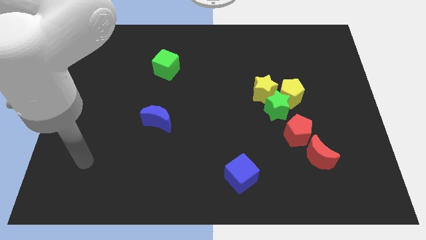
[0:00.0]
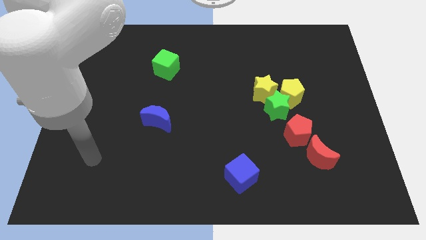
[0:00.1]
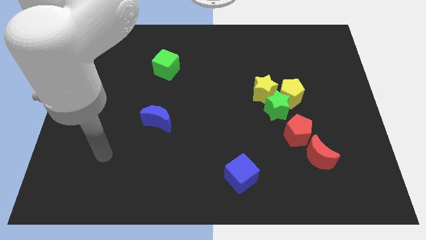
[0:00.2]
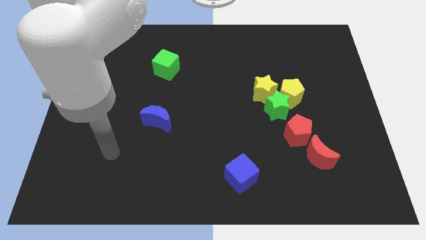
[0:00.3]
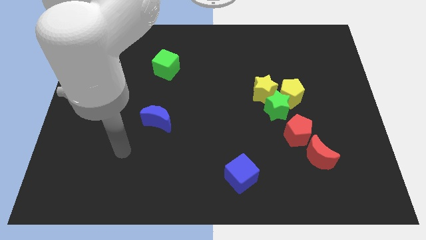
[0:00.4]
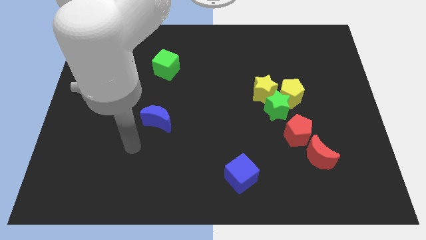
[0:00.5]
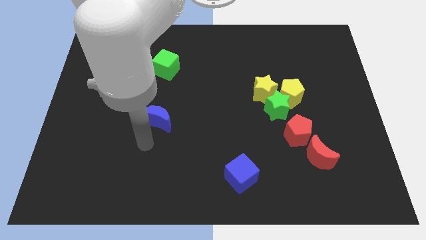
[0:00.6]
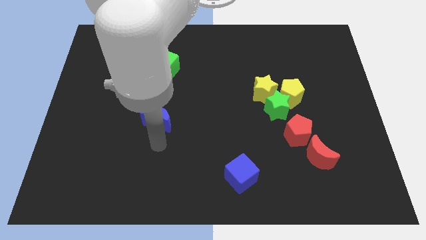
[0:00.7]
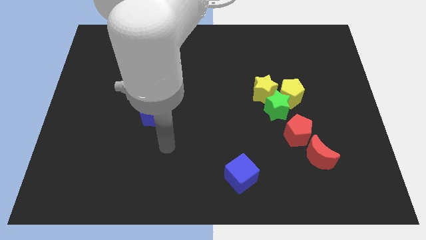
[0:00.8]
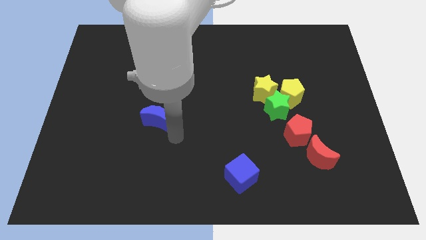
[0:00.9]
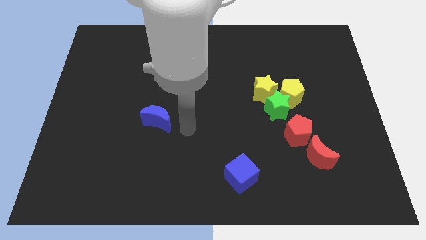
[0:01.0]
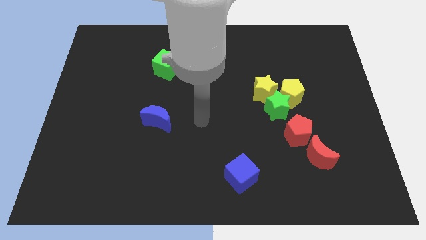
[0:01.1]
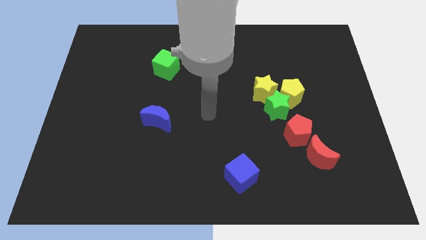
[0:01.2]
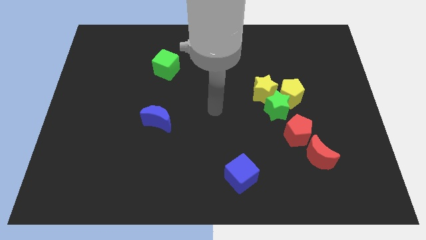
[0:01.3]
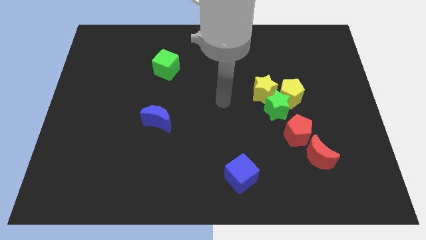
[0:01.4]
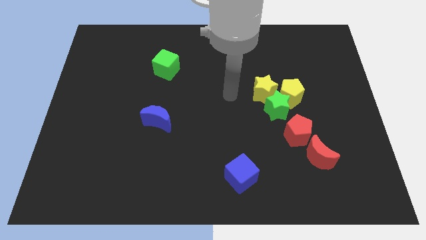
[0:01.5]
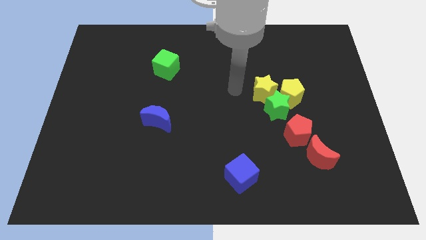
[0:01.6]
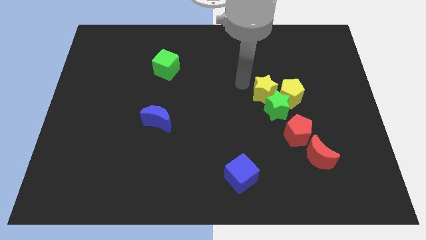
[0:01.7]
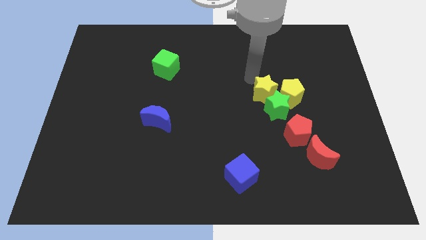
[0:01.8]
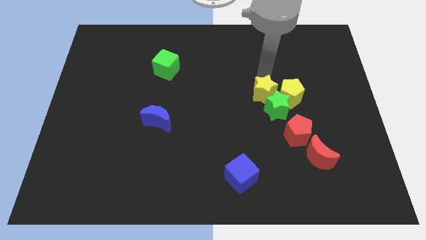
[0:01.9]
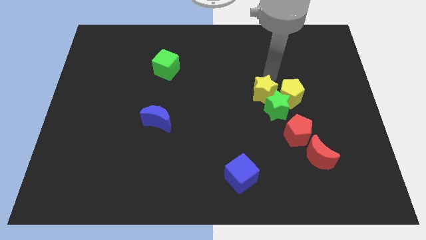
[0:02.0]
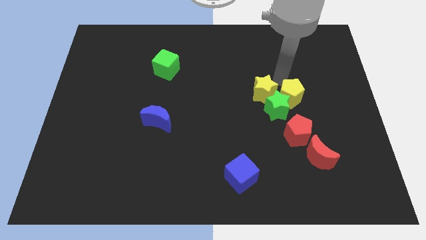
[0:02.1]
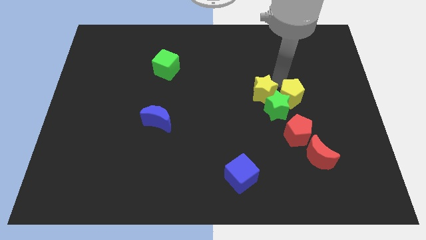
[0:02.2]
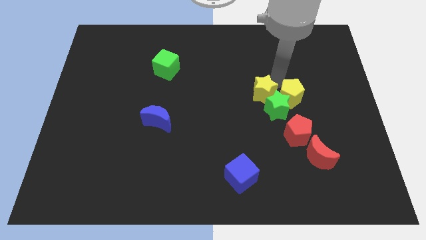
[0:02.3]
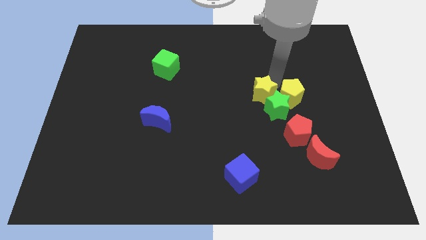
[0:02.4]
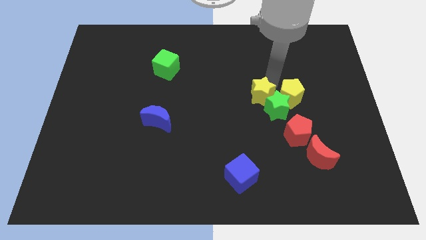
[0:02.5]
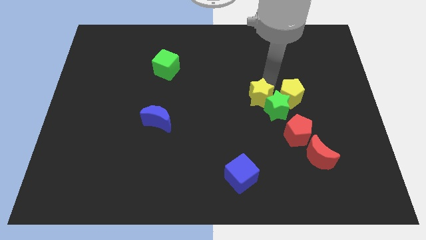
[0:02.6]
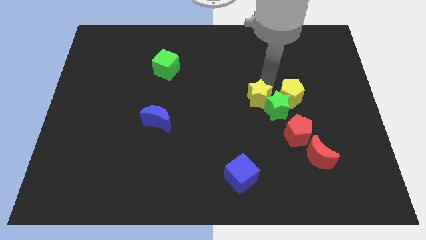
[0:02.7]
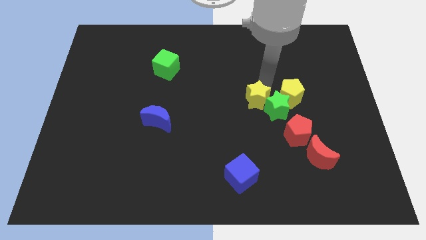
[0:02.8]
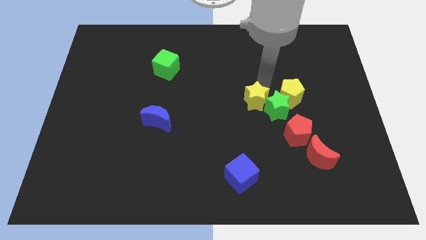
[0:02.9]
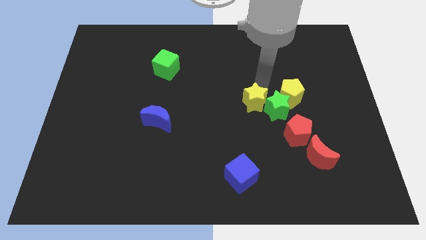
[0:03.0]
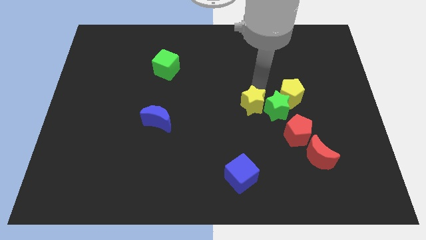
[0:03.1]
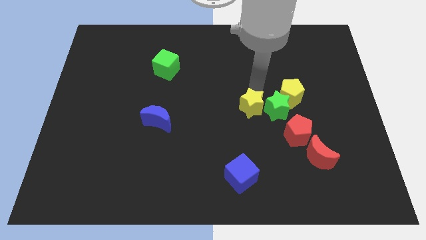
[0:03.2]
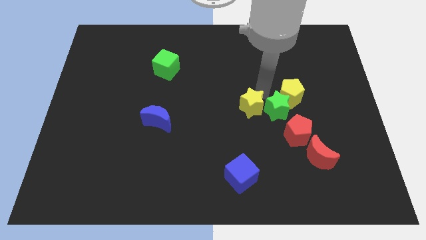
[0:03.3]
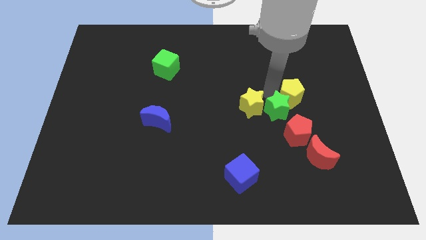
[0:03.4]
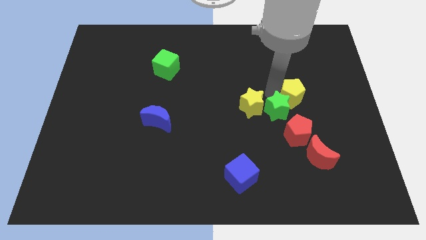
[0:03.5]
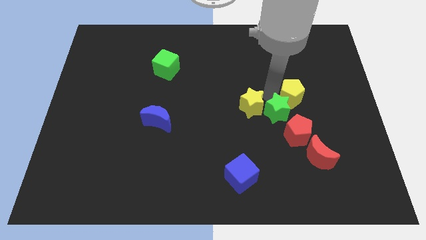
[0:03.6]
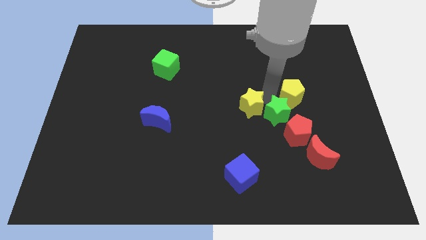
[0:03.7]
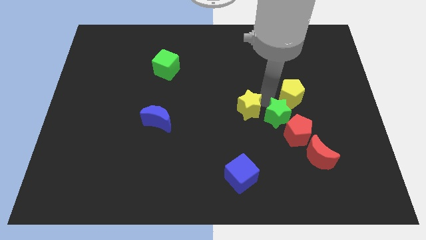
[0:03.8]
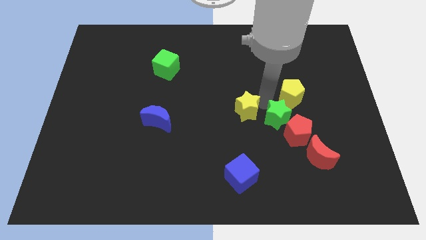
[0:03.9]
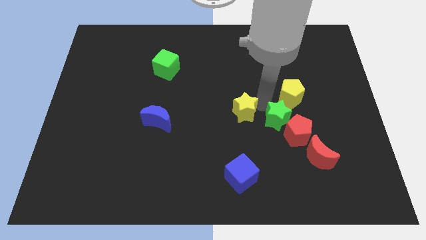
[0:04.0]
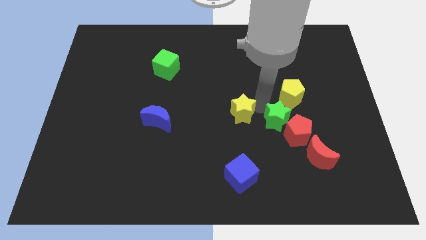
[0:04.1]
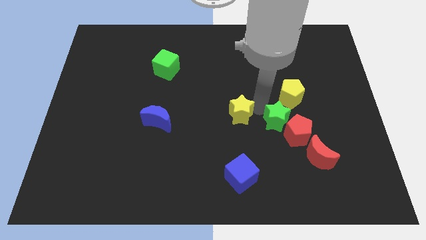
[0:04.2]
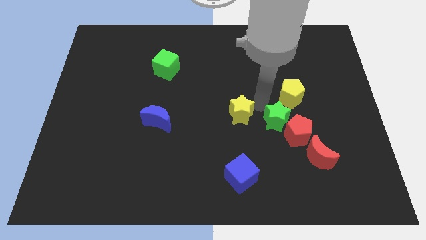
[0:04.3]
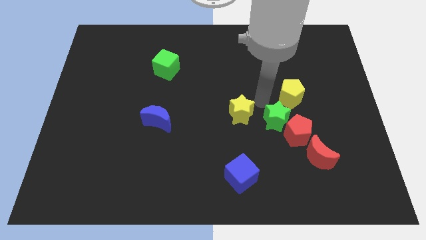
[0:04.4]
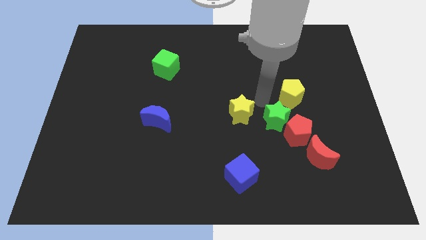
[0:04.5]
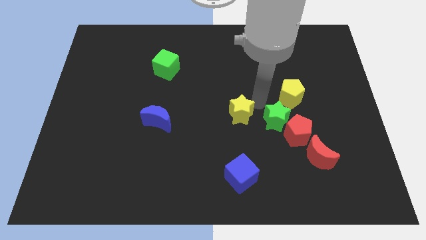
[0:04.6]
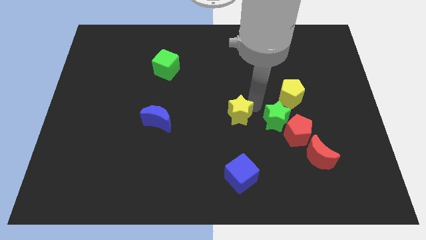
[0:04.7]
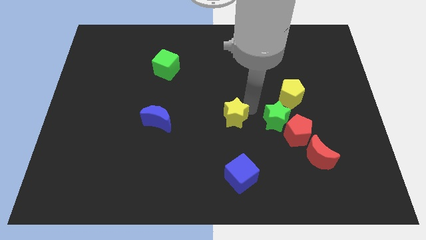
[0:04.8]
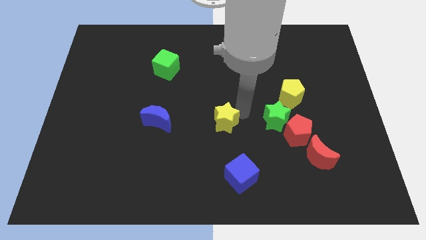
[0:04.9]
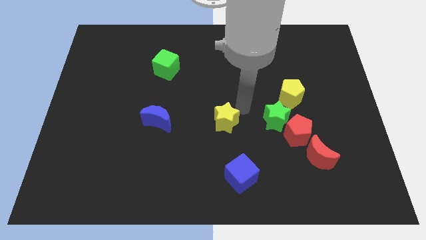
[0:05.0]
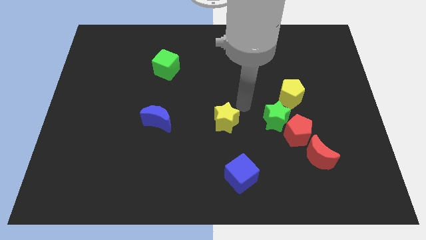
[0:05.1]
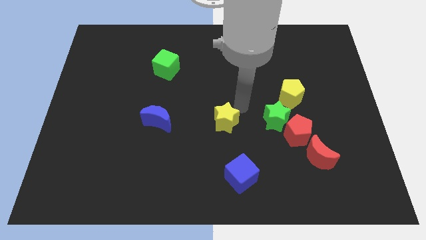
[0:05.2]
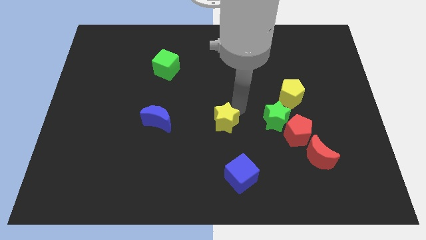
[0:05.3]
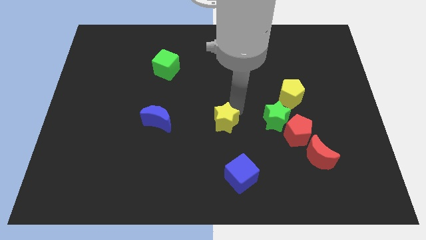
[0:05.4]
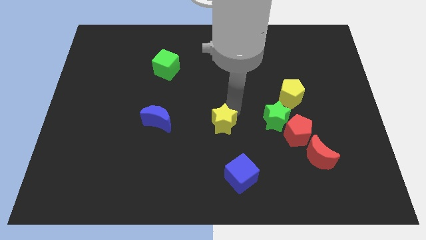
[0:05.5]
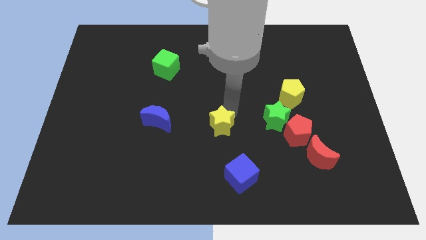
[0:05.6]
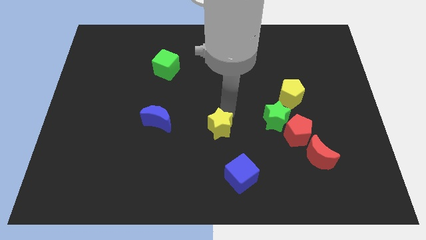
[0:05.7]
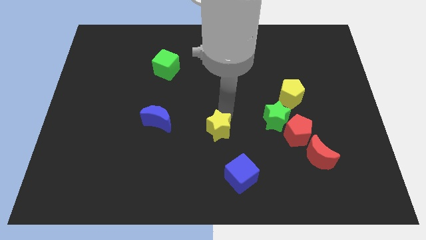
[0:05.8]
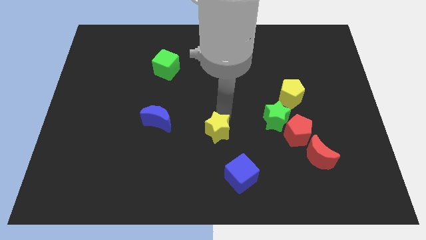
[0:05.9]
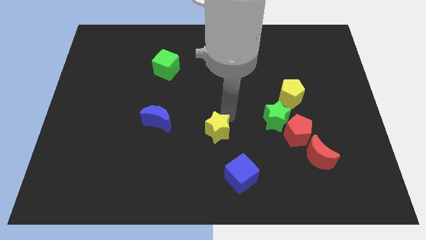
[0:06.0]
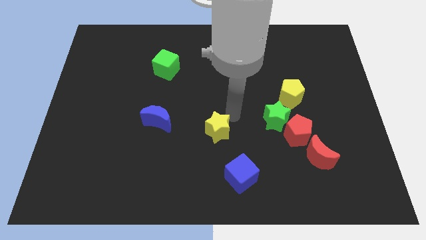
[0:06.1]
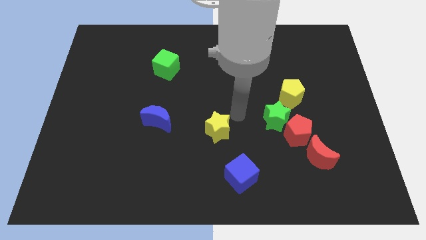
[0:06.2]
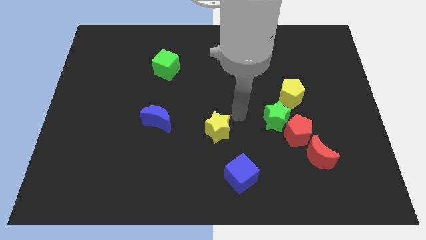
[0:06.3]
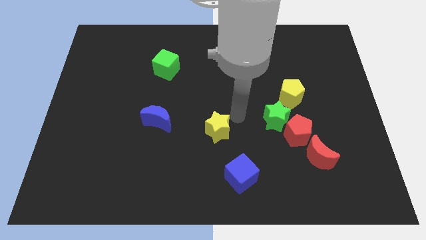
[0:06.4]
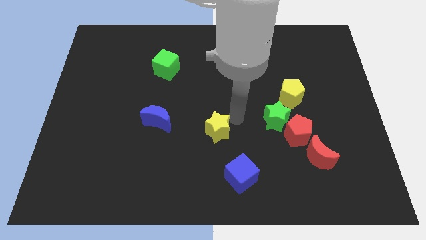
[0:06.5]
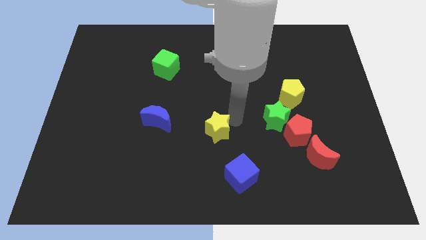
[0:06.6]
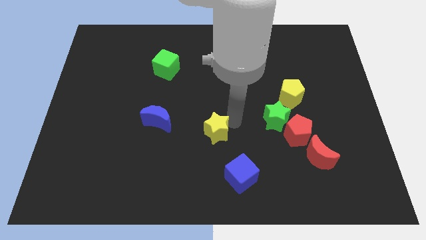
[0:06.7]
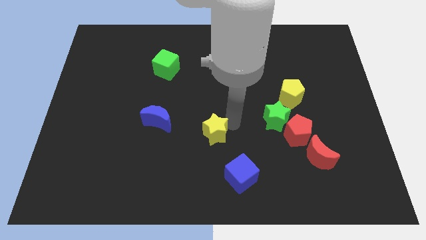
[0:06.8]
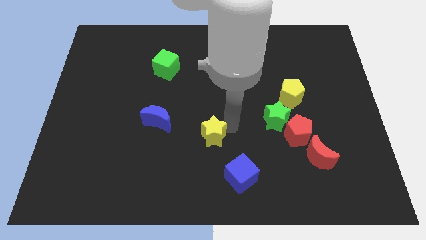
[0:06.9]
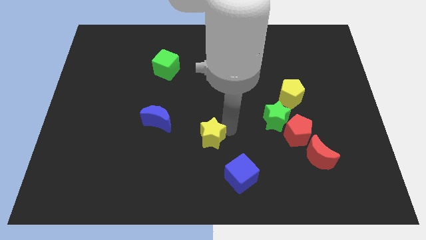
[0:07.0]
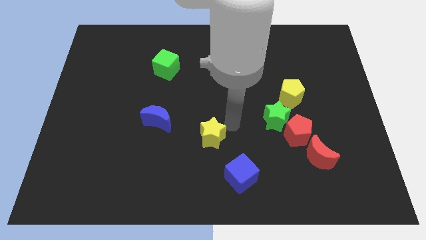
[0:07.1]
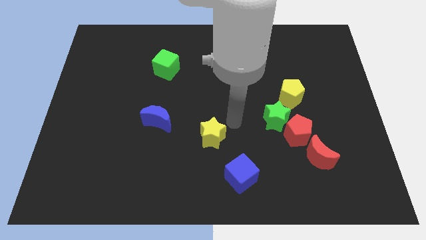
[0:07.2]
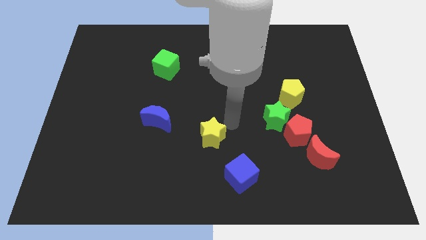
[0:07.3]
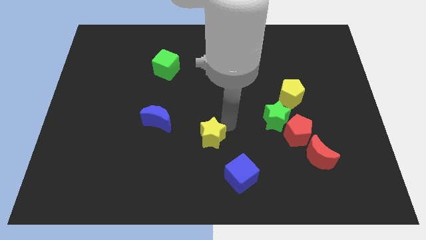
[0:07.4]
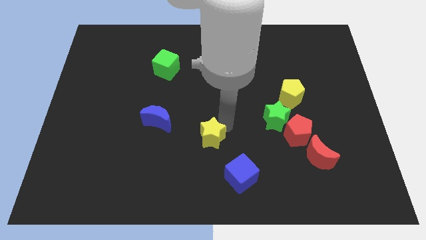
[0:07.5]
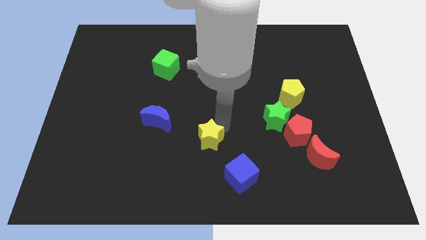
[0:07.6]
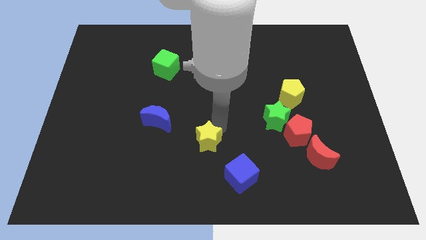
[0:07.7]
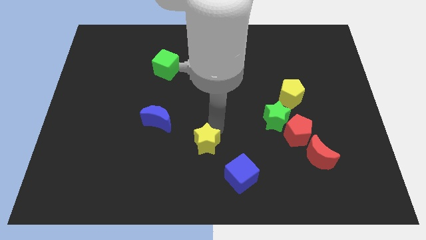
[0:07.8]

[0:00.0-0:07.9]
push the yellow star down and left diagonally

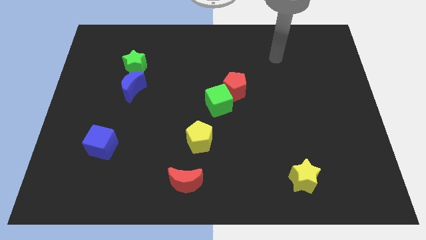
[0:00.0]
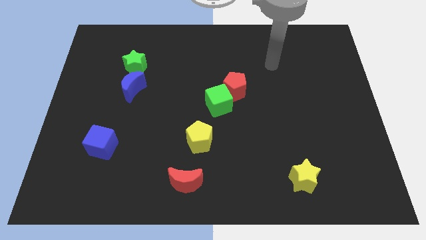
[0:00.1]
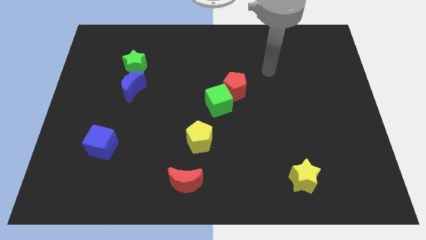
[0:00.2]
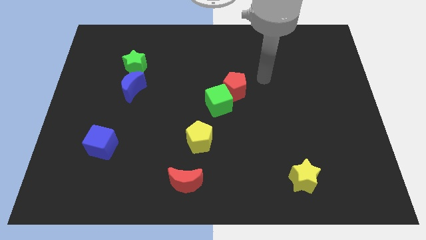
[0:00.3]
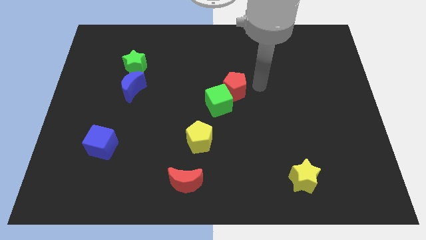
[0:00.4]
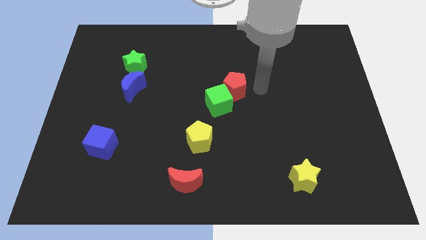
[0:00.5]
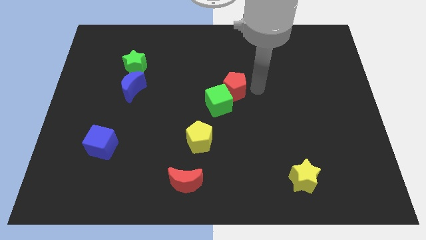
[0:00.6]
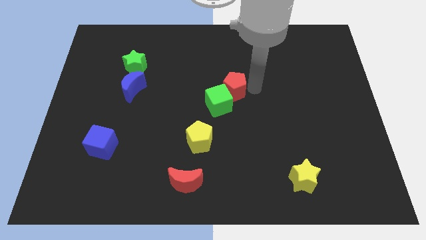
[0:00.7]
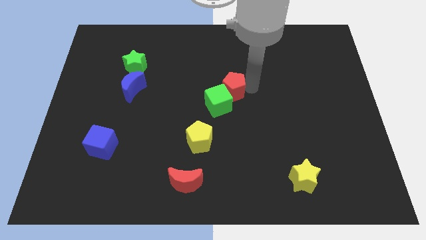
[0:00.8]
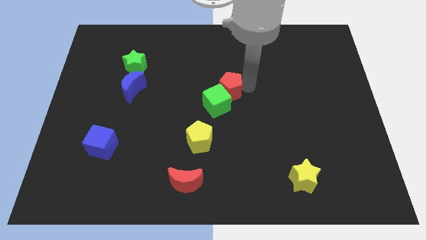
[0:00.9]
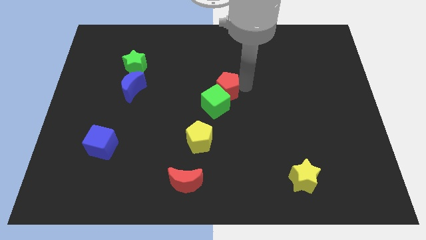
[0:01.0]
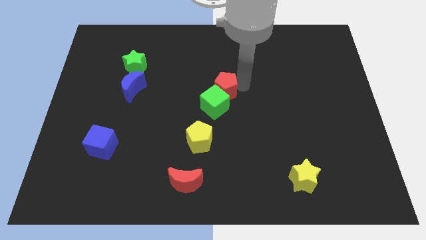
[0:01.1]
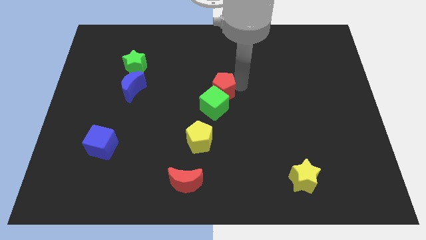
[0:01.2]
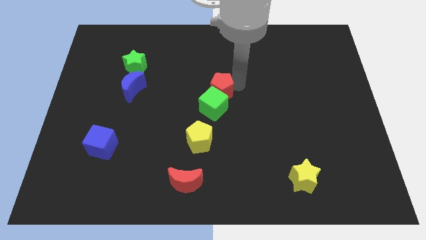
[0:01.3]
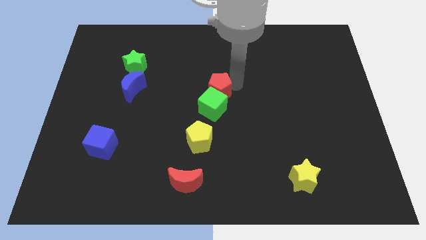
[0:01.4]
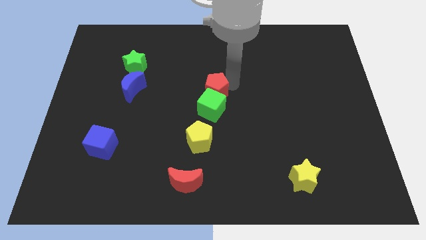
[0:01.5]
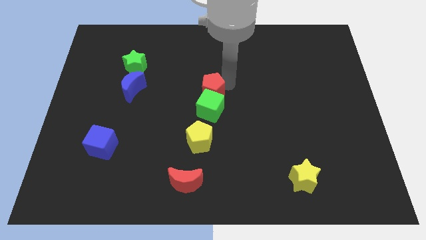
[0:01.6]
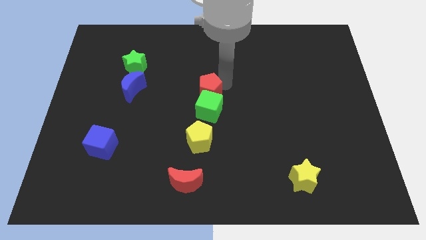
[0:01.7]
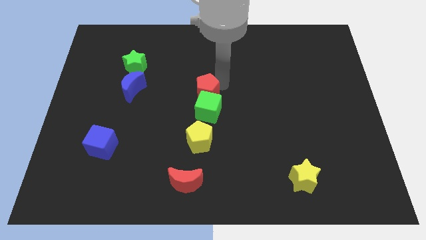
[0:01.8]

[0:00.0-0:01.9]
slightly slide the red pentagon left
